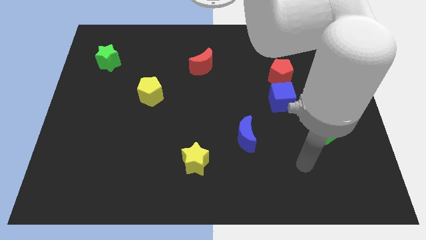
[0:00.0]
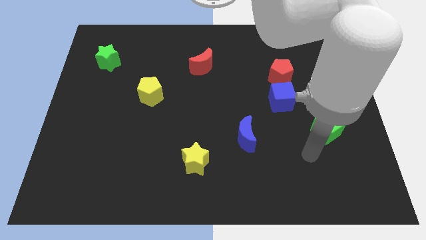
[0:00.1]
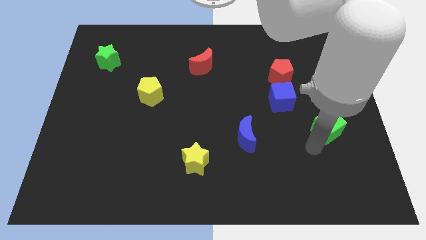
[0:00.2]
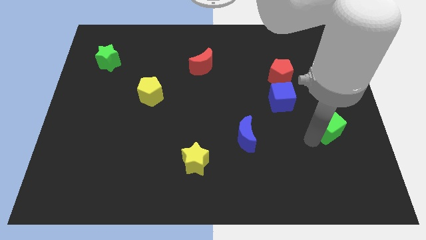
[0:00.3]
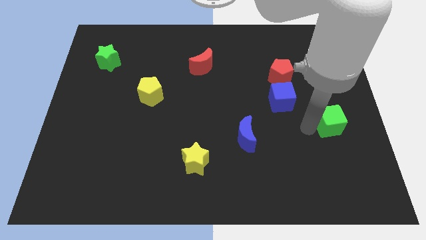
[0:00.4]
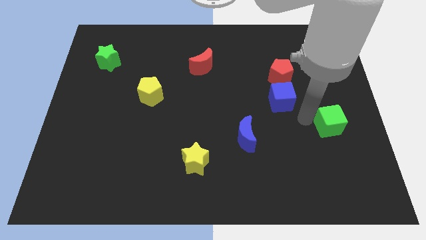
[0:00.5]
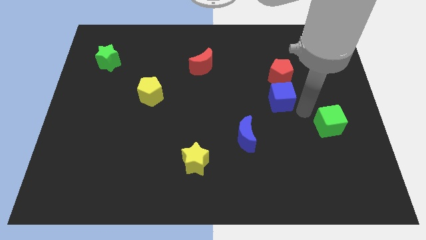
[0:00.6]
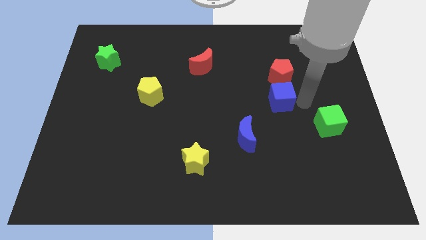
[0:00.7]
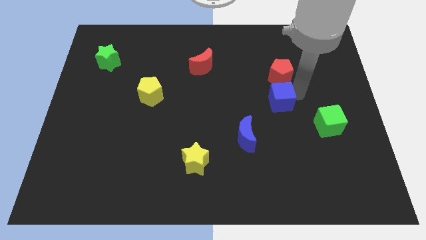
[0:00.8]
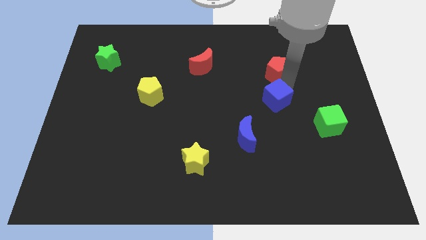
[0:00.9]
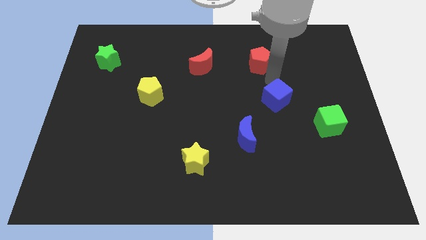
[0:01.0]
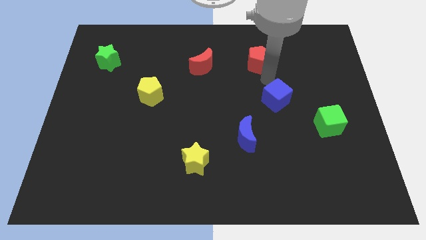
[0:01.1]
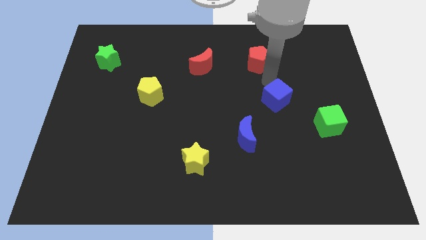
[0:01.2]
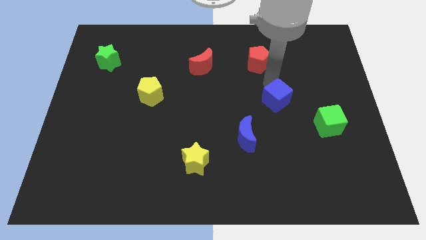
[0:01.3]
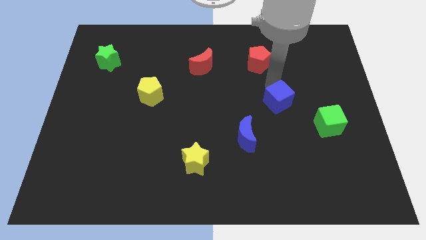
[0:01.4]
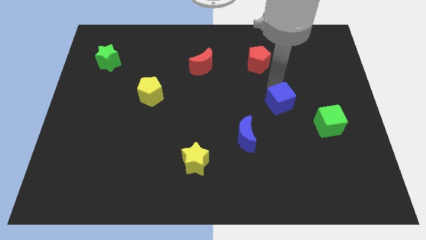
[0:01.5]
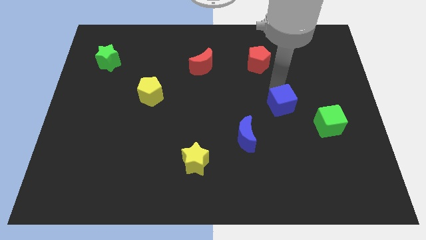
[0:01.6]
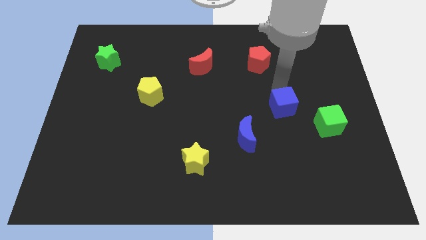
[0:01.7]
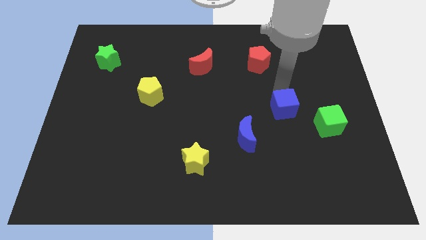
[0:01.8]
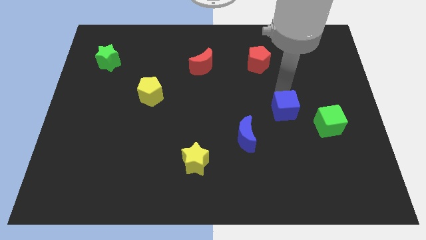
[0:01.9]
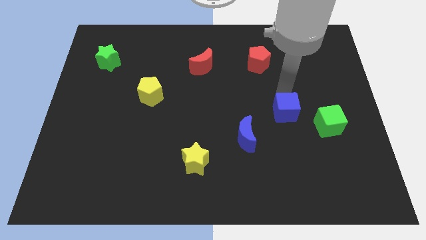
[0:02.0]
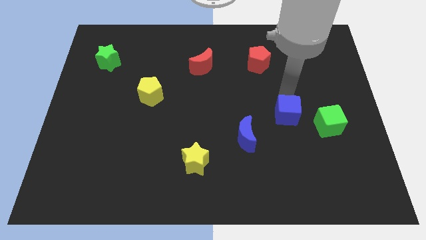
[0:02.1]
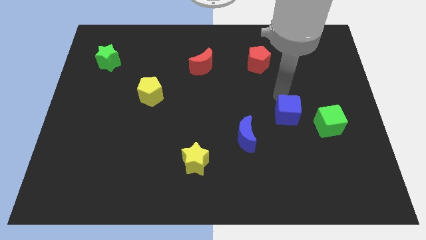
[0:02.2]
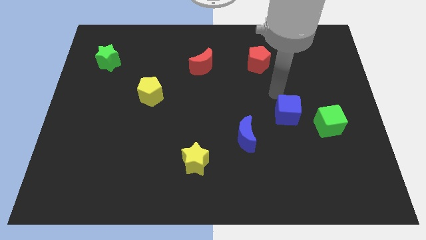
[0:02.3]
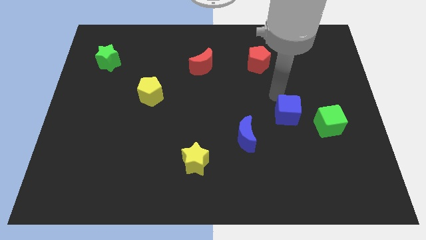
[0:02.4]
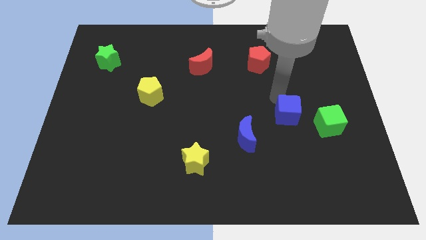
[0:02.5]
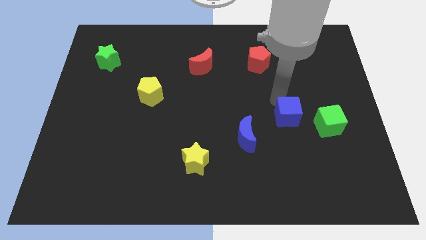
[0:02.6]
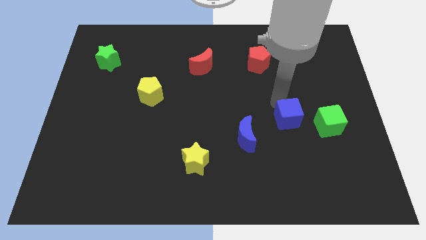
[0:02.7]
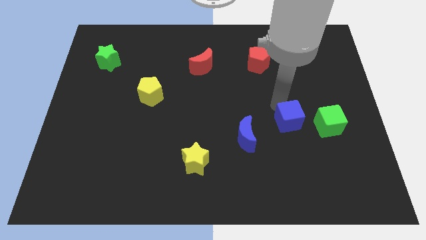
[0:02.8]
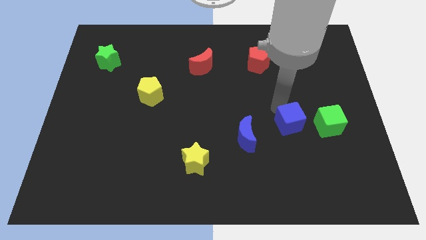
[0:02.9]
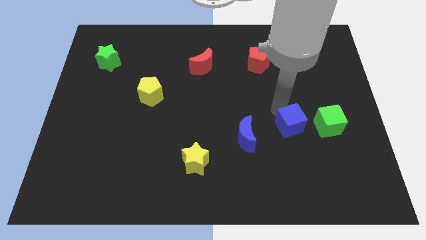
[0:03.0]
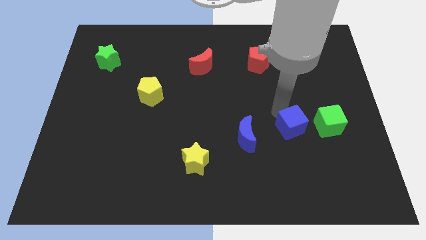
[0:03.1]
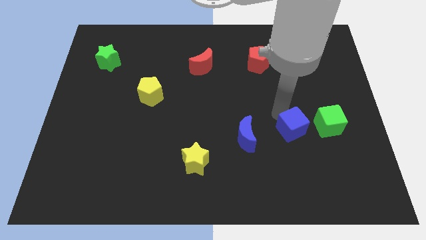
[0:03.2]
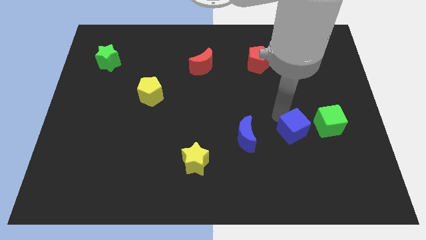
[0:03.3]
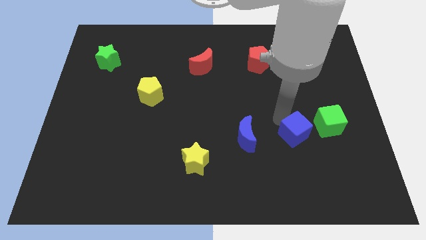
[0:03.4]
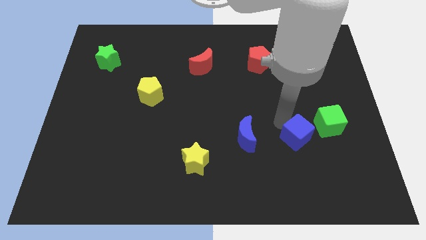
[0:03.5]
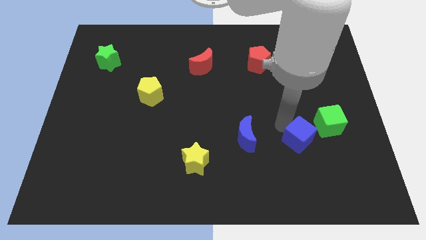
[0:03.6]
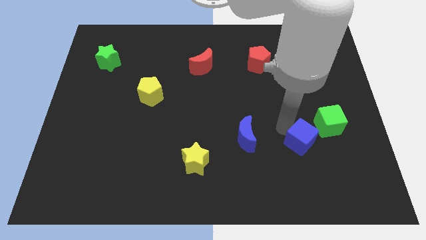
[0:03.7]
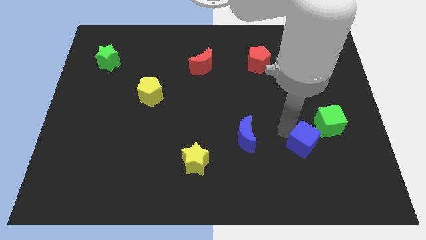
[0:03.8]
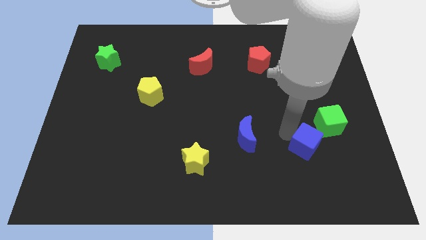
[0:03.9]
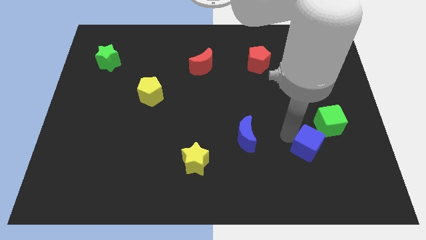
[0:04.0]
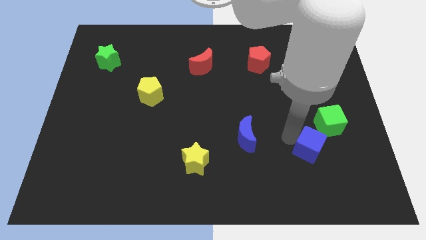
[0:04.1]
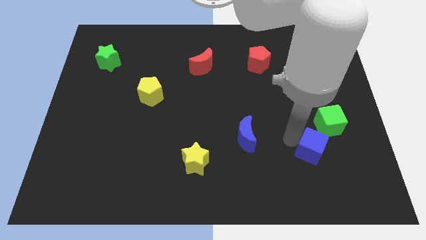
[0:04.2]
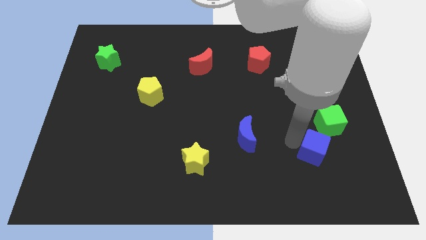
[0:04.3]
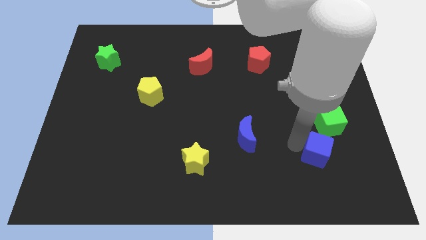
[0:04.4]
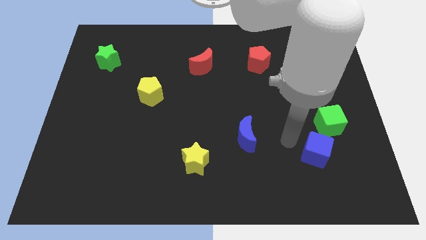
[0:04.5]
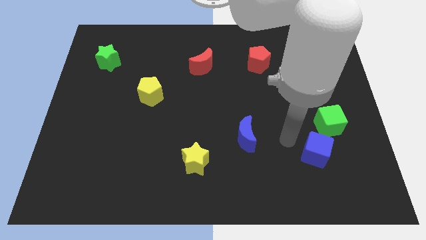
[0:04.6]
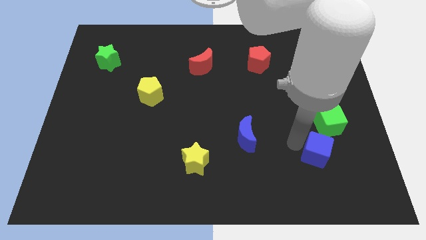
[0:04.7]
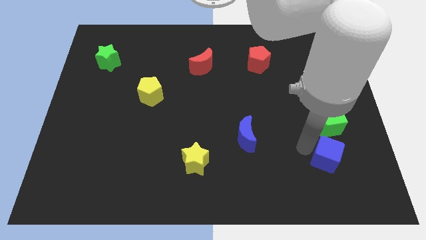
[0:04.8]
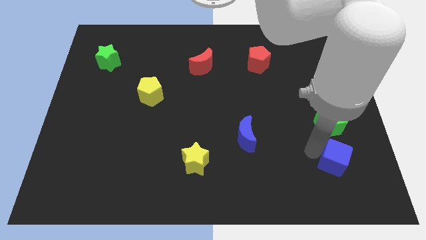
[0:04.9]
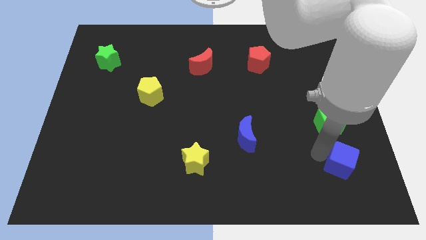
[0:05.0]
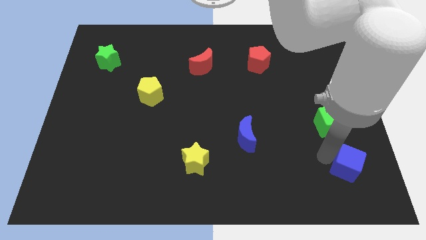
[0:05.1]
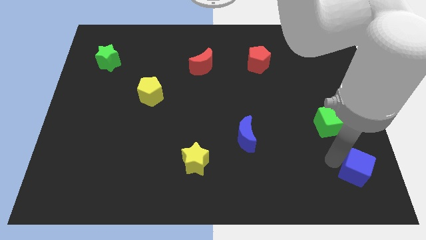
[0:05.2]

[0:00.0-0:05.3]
move the blue cube to the bottom right of the board

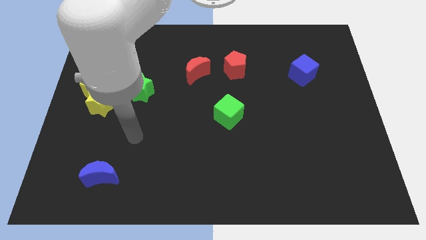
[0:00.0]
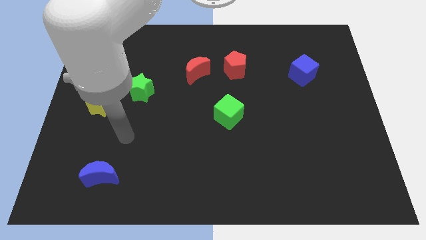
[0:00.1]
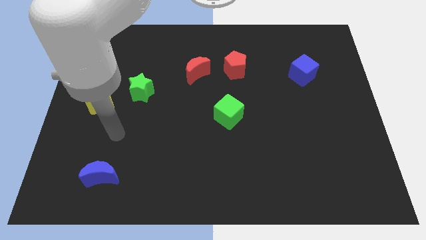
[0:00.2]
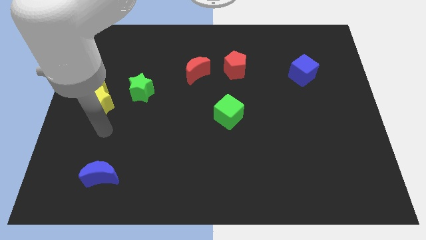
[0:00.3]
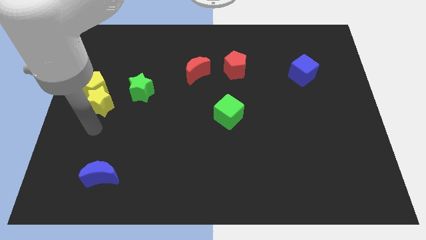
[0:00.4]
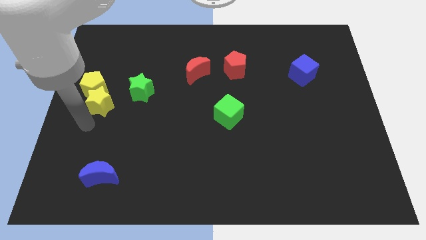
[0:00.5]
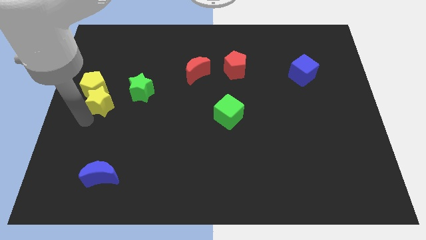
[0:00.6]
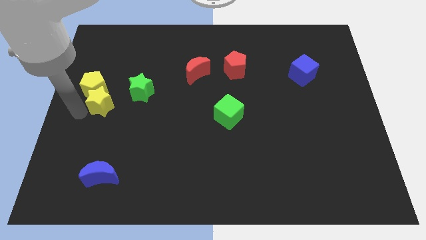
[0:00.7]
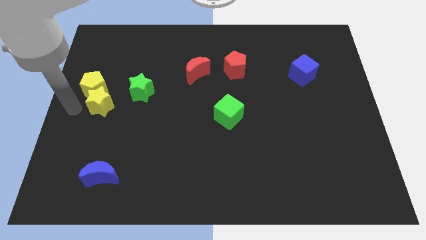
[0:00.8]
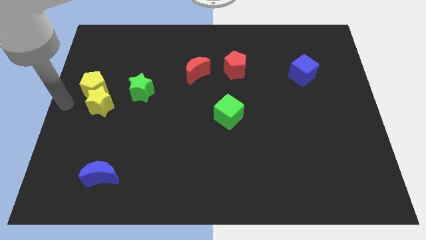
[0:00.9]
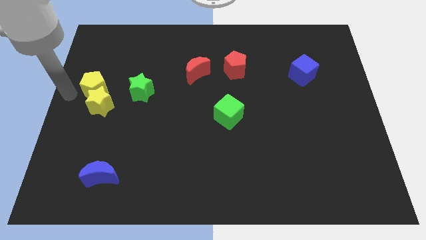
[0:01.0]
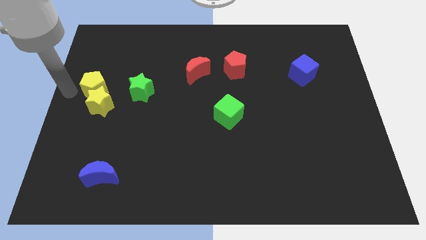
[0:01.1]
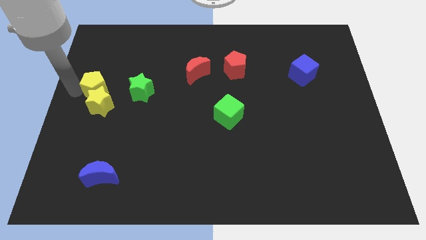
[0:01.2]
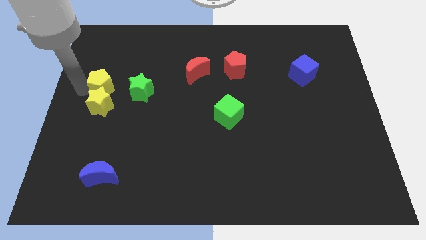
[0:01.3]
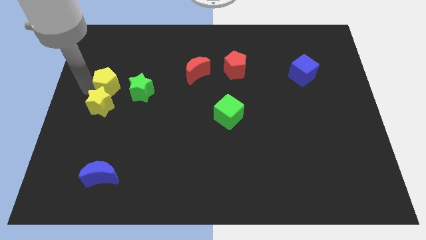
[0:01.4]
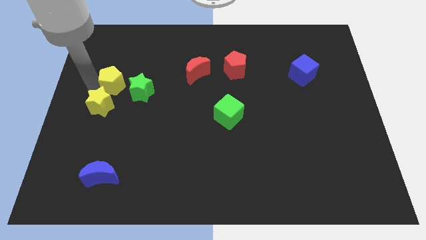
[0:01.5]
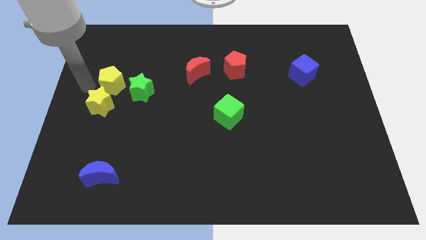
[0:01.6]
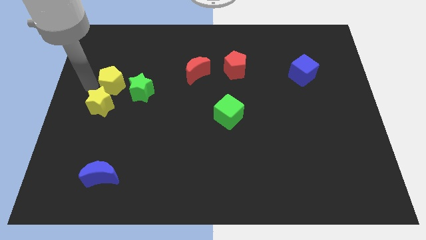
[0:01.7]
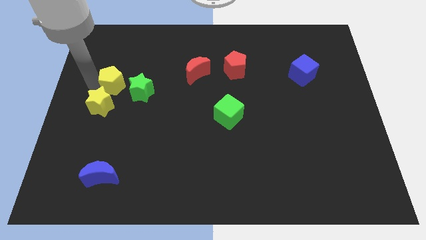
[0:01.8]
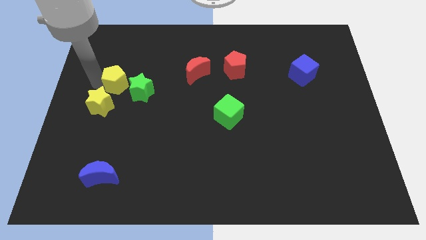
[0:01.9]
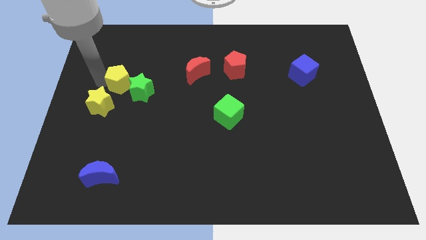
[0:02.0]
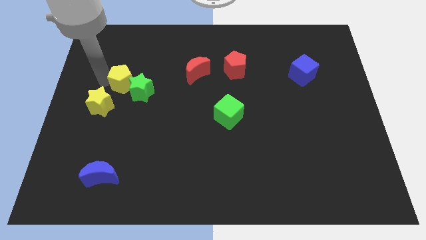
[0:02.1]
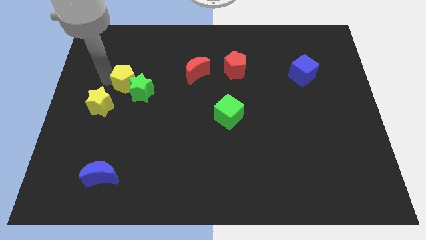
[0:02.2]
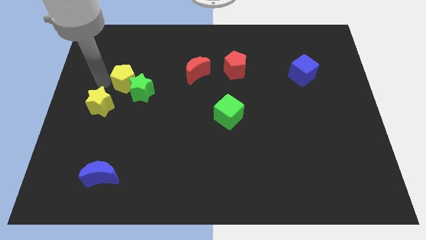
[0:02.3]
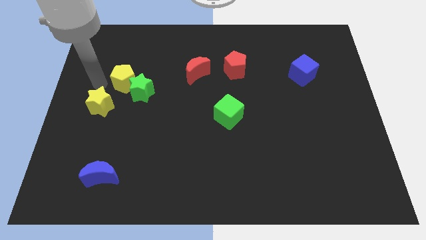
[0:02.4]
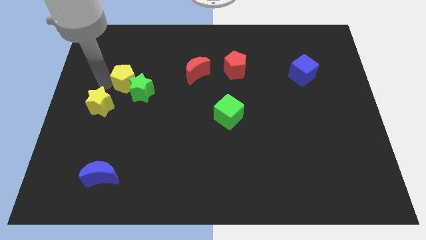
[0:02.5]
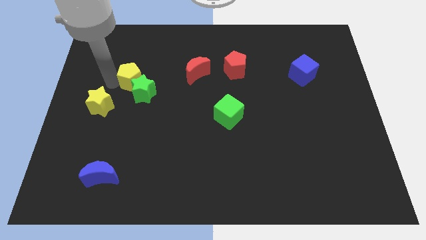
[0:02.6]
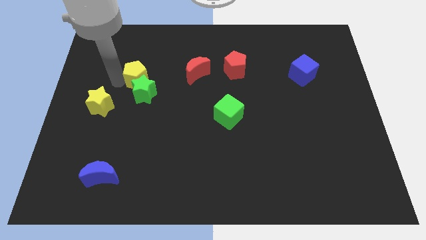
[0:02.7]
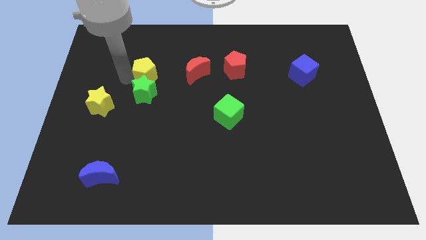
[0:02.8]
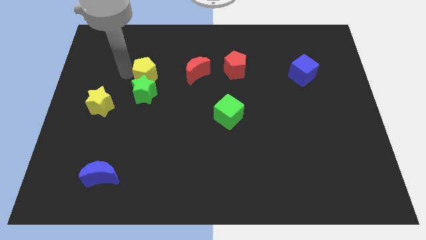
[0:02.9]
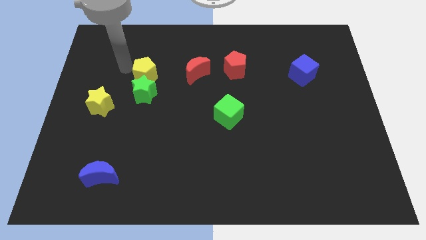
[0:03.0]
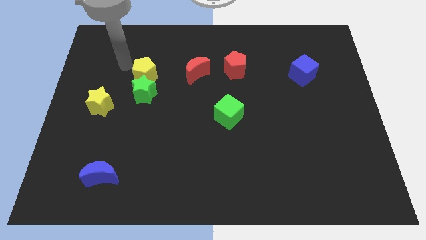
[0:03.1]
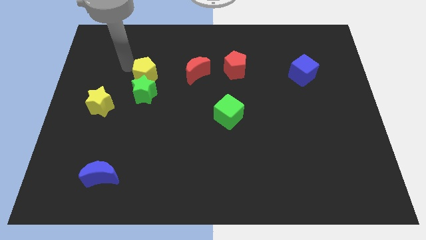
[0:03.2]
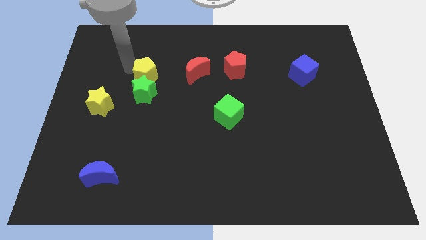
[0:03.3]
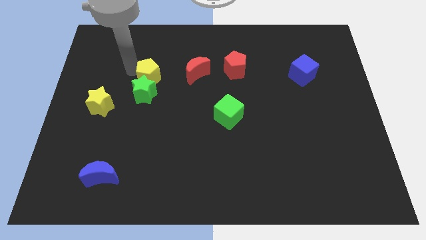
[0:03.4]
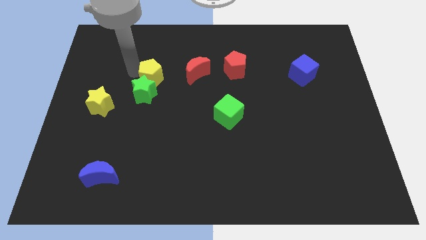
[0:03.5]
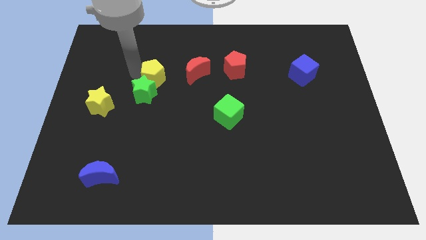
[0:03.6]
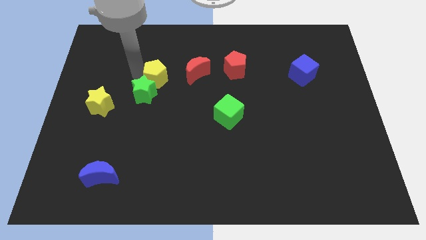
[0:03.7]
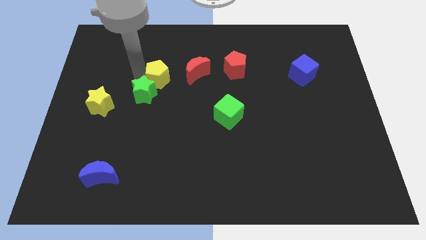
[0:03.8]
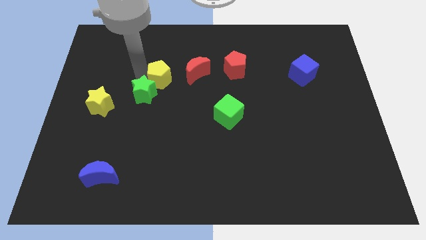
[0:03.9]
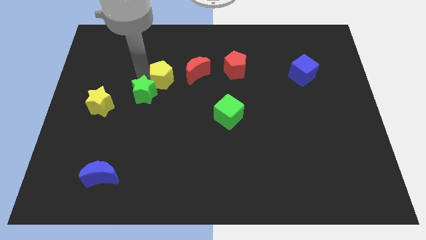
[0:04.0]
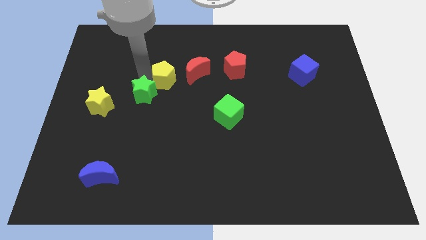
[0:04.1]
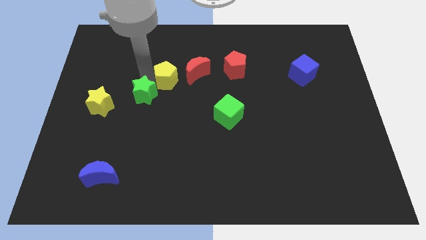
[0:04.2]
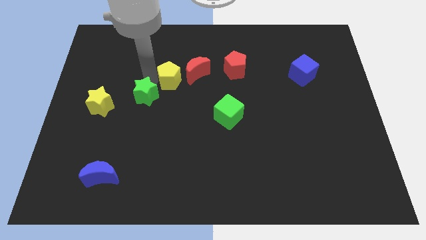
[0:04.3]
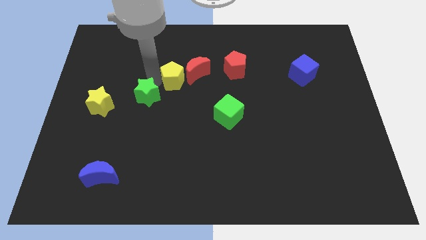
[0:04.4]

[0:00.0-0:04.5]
push the yellow pentagon to the middle
